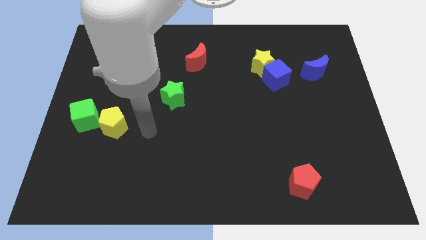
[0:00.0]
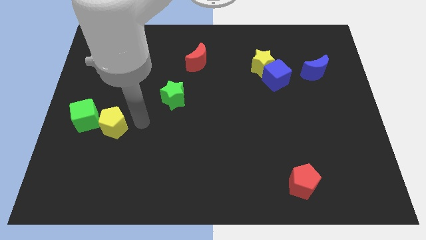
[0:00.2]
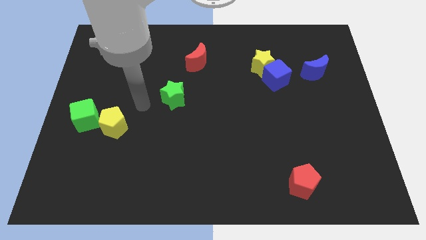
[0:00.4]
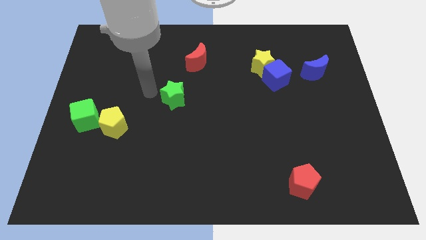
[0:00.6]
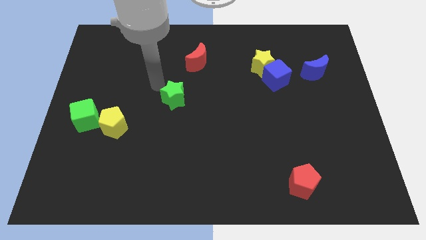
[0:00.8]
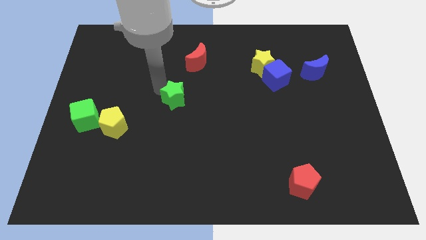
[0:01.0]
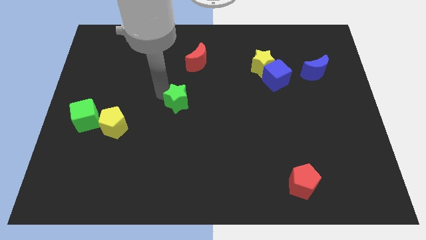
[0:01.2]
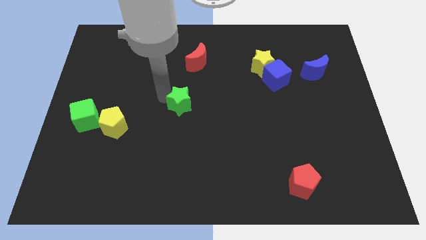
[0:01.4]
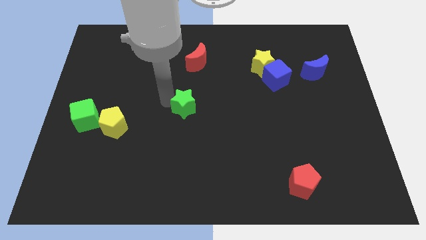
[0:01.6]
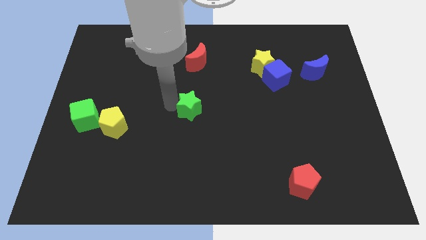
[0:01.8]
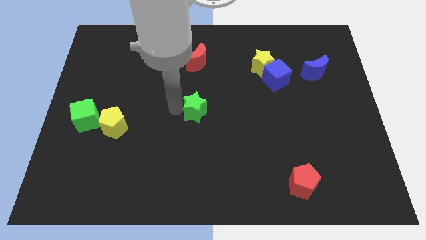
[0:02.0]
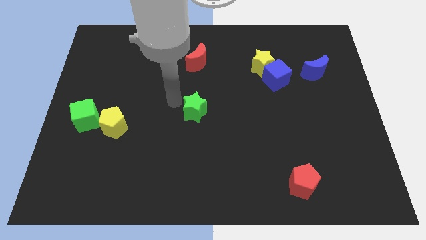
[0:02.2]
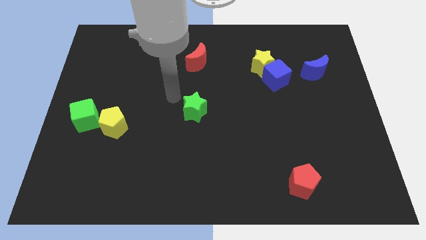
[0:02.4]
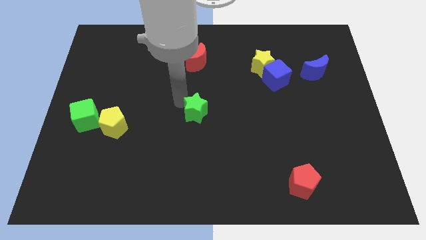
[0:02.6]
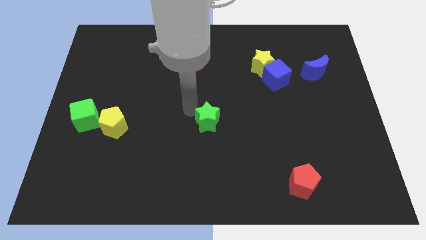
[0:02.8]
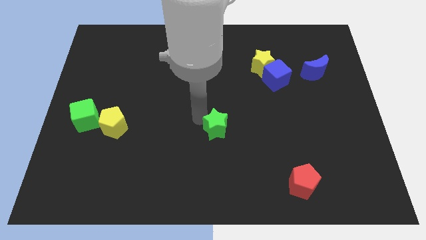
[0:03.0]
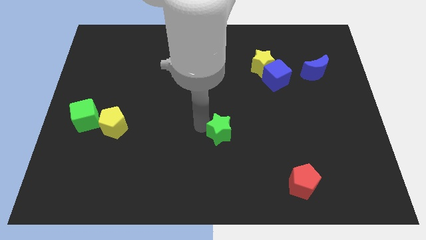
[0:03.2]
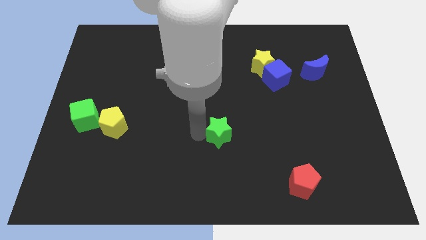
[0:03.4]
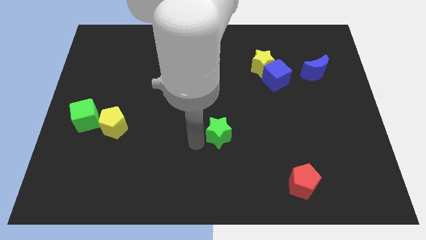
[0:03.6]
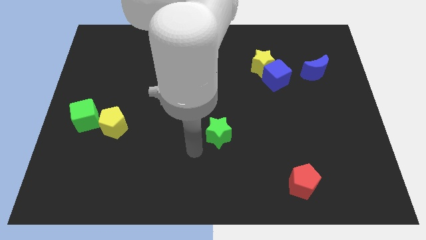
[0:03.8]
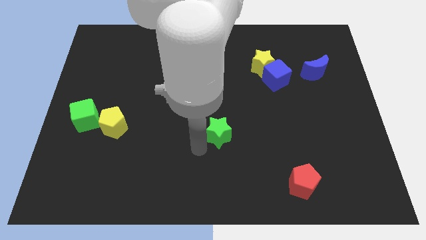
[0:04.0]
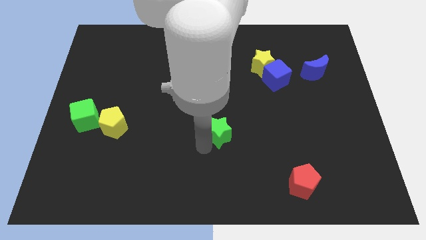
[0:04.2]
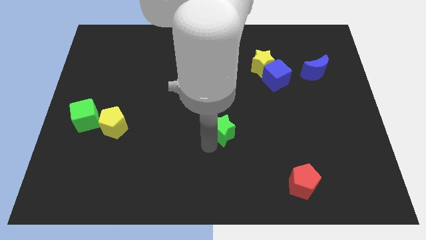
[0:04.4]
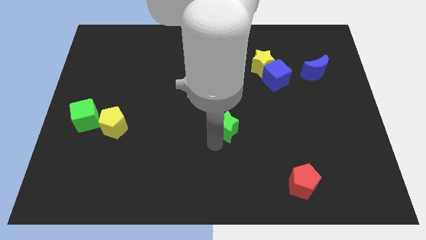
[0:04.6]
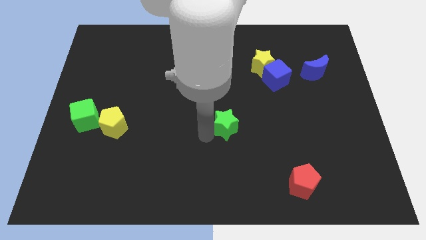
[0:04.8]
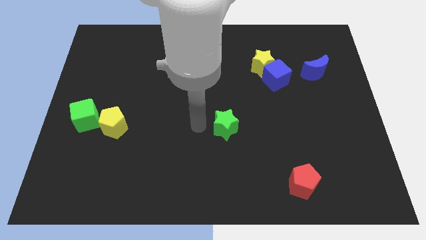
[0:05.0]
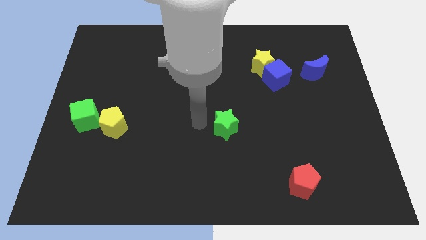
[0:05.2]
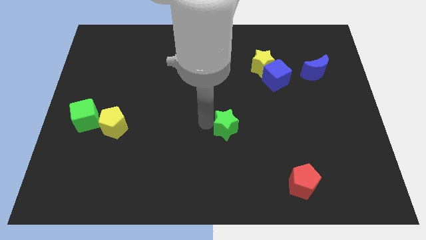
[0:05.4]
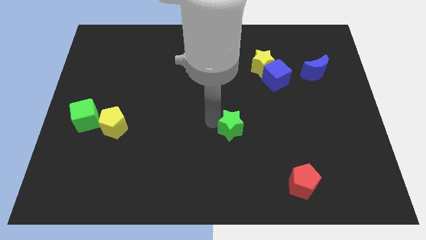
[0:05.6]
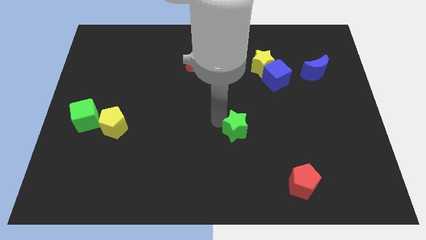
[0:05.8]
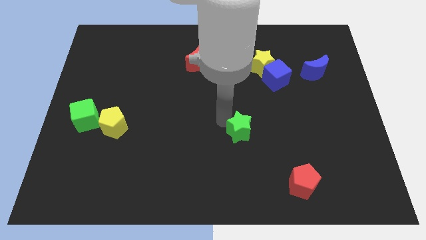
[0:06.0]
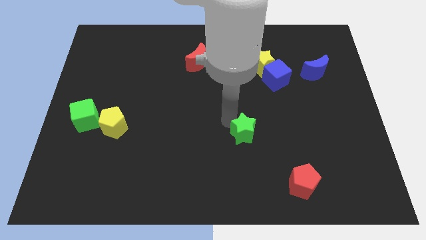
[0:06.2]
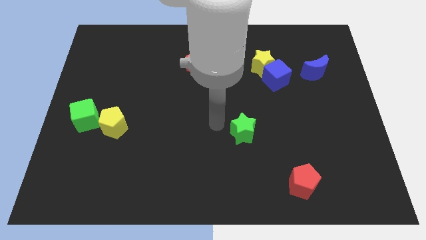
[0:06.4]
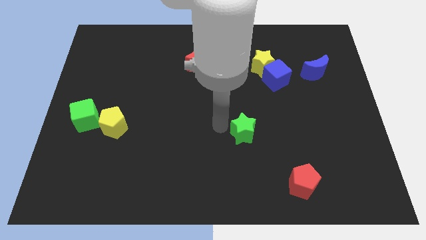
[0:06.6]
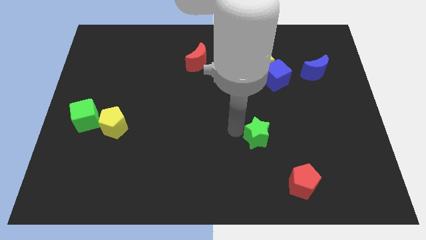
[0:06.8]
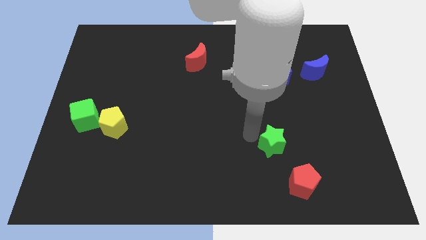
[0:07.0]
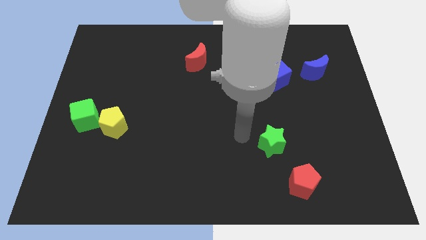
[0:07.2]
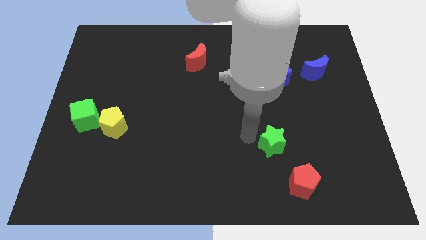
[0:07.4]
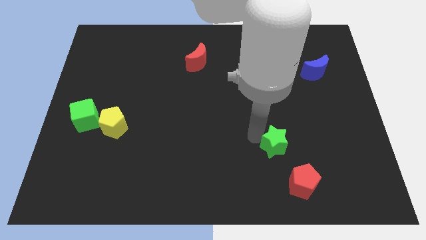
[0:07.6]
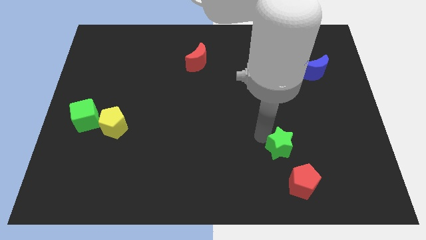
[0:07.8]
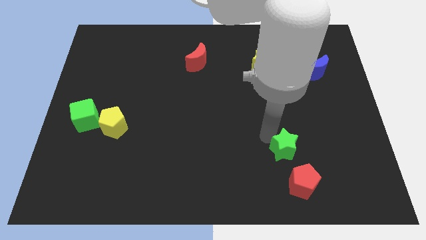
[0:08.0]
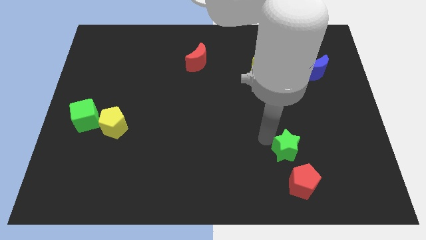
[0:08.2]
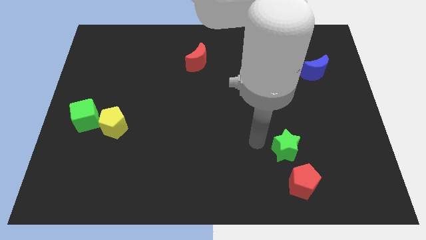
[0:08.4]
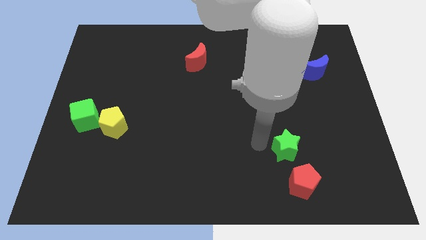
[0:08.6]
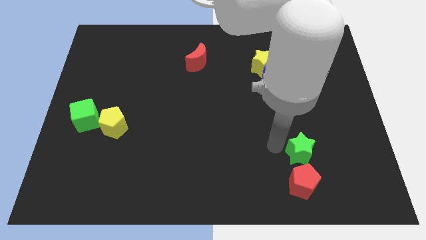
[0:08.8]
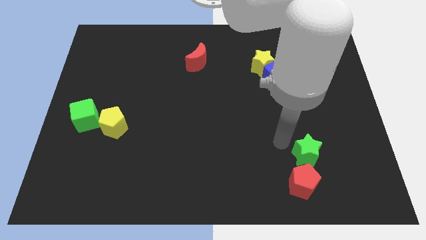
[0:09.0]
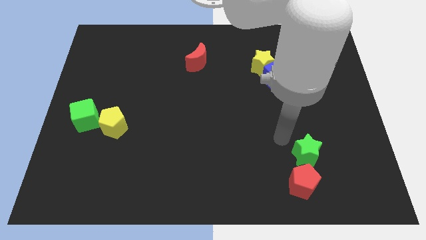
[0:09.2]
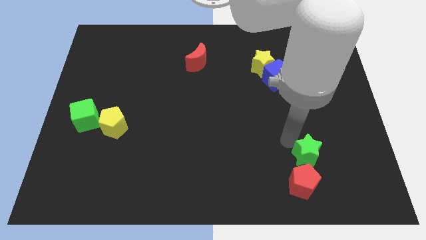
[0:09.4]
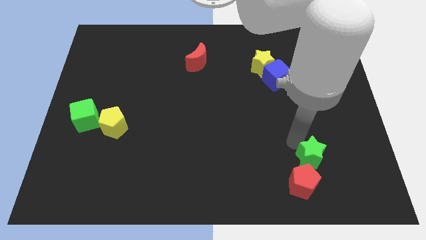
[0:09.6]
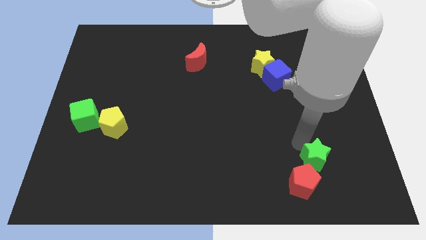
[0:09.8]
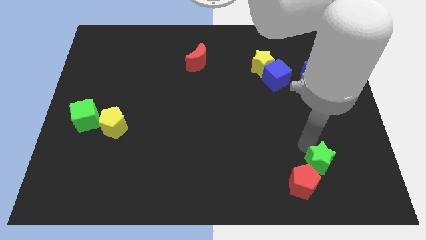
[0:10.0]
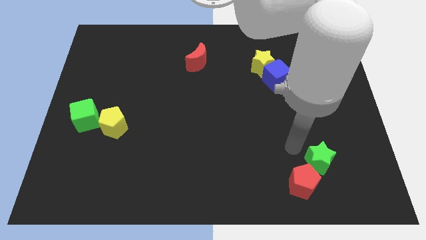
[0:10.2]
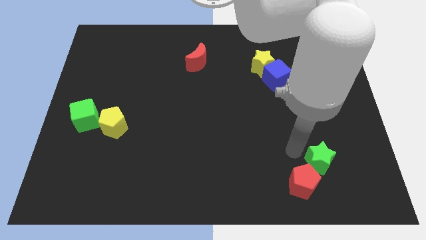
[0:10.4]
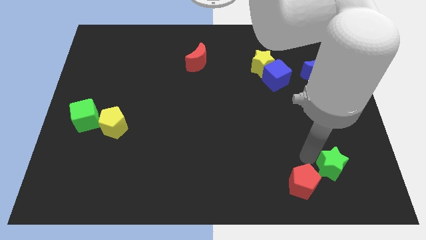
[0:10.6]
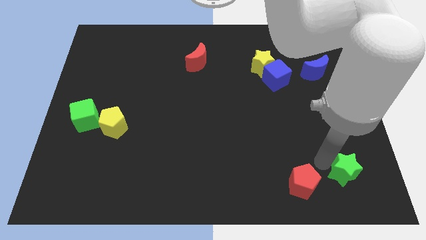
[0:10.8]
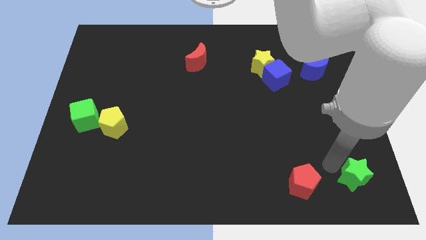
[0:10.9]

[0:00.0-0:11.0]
put the green star to the bottom right corner

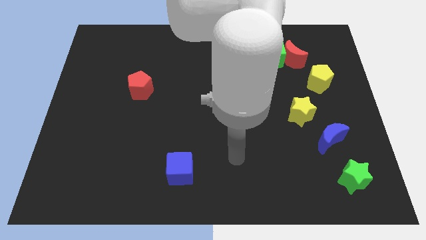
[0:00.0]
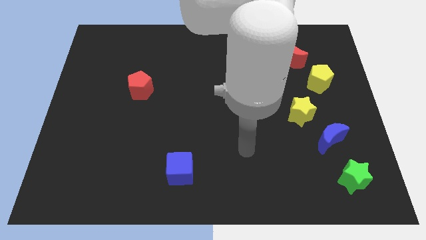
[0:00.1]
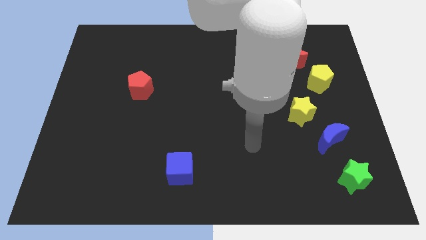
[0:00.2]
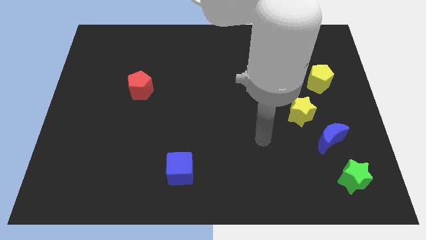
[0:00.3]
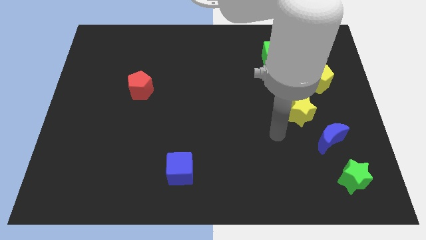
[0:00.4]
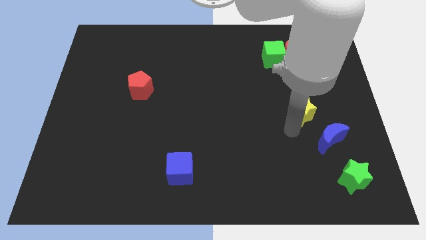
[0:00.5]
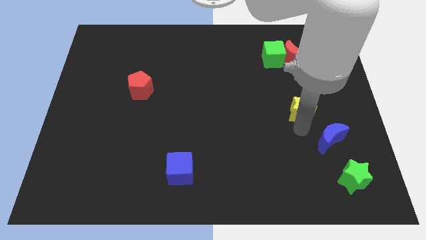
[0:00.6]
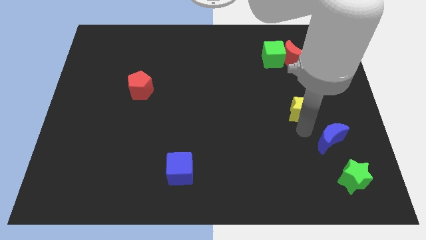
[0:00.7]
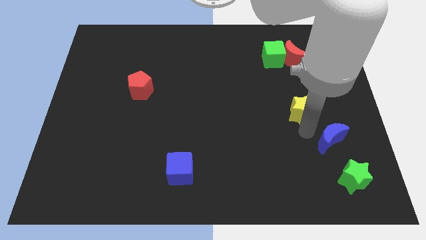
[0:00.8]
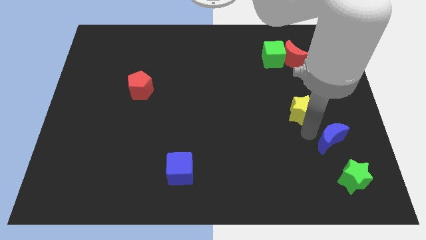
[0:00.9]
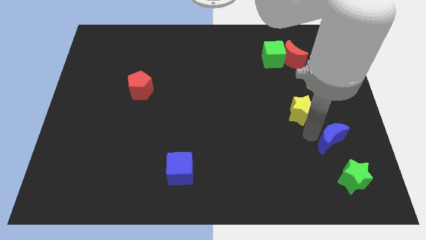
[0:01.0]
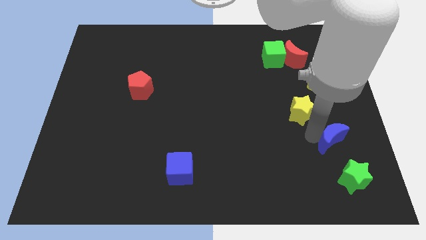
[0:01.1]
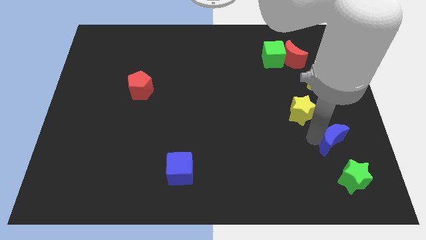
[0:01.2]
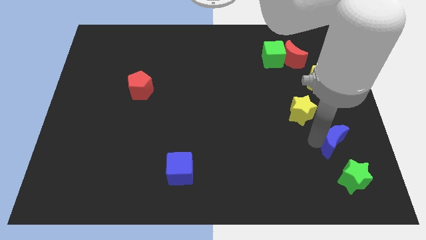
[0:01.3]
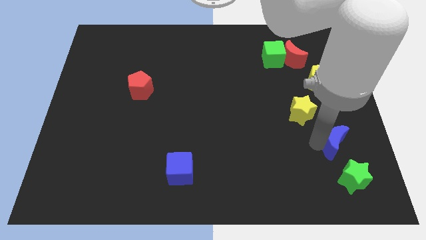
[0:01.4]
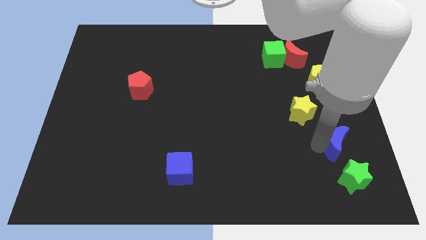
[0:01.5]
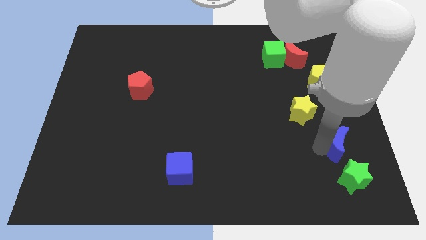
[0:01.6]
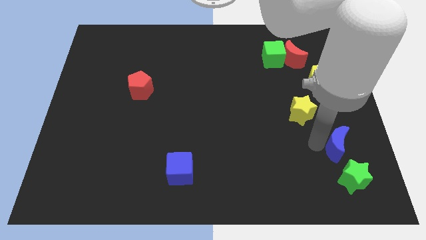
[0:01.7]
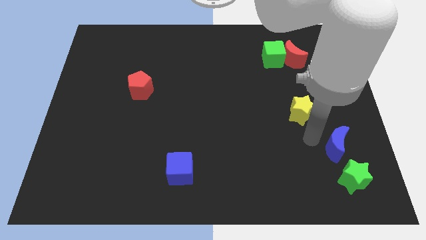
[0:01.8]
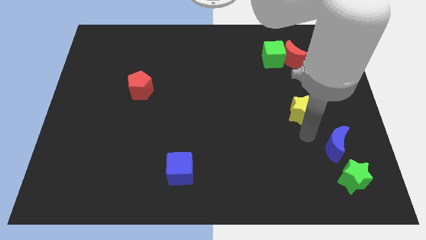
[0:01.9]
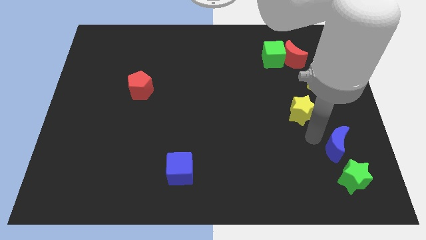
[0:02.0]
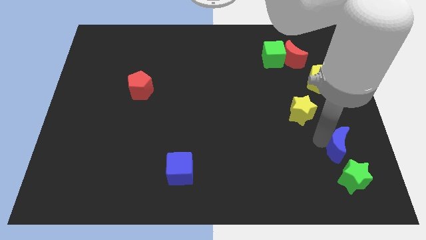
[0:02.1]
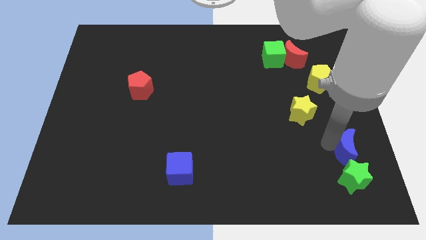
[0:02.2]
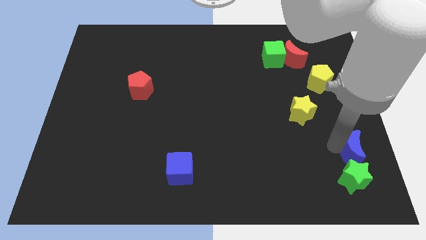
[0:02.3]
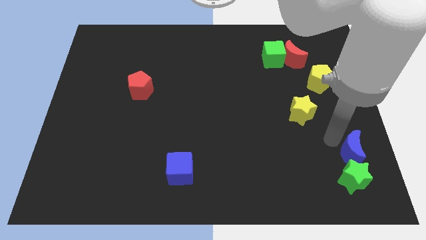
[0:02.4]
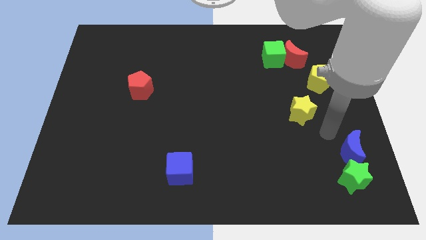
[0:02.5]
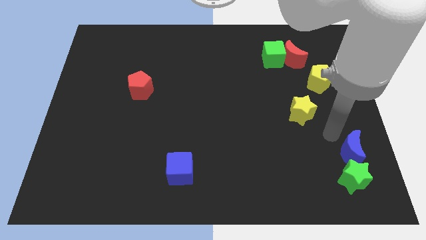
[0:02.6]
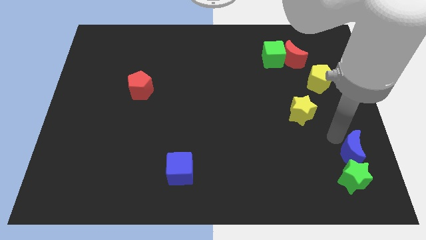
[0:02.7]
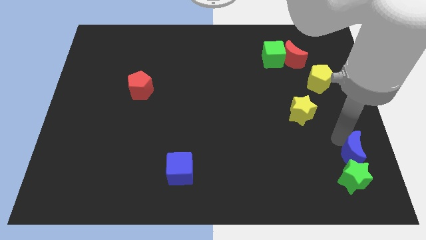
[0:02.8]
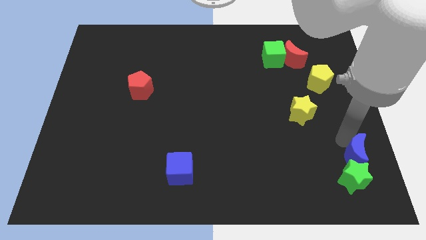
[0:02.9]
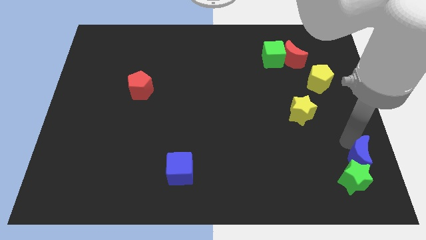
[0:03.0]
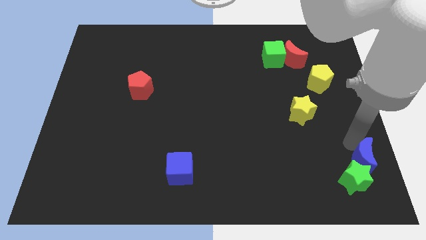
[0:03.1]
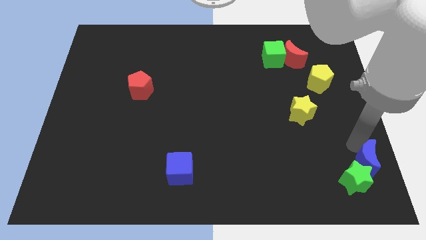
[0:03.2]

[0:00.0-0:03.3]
move the blue moon to the bottom right
